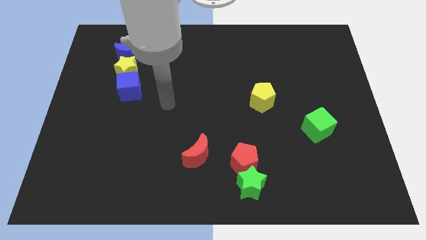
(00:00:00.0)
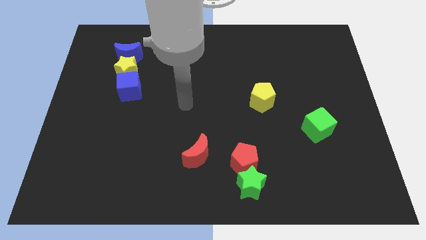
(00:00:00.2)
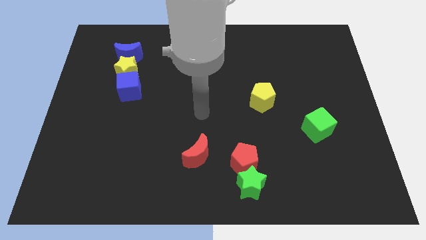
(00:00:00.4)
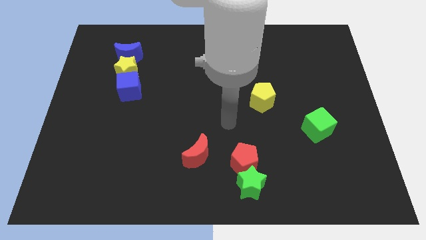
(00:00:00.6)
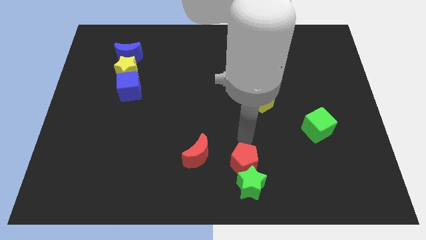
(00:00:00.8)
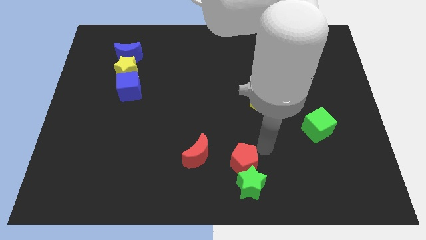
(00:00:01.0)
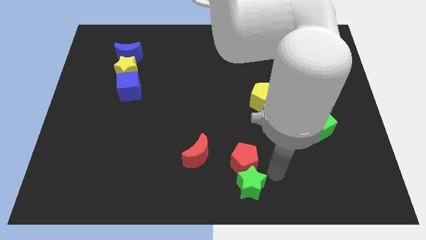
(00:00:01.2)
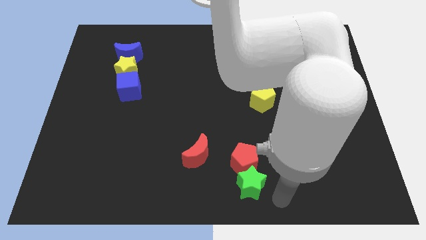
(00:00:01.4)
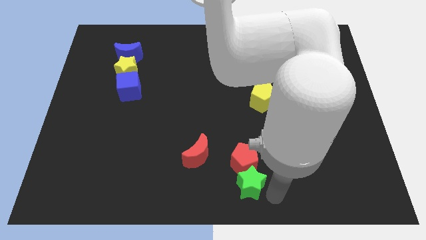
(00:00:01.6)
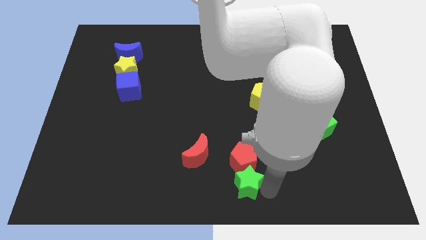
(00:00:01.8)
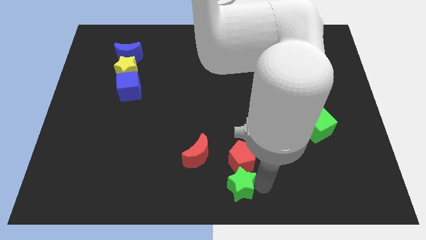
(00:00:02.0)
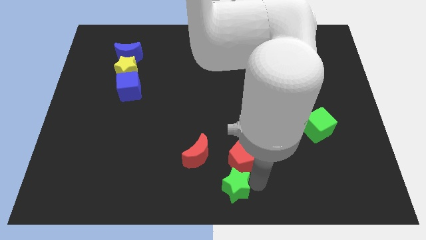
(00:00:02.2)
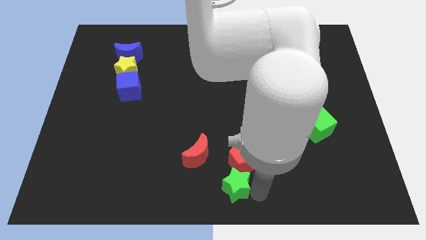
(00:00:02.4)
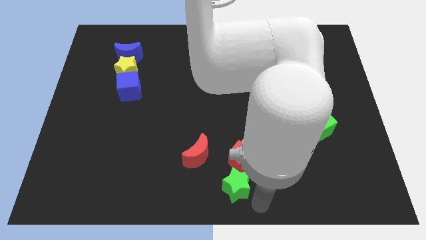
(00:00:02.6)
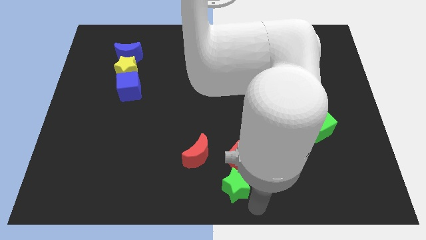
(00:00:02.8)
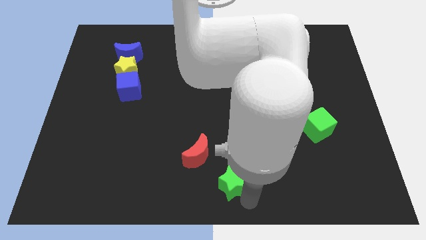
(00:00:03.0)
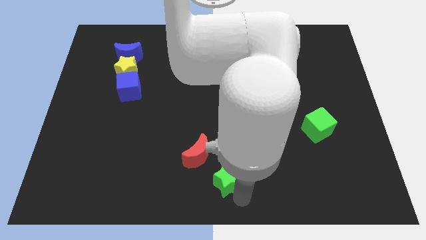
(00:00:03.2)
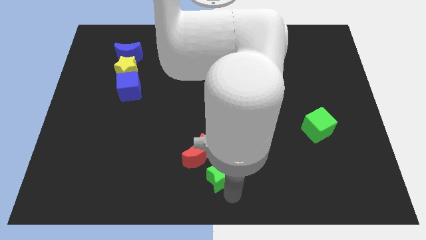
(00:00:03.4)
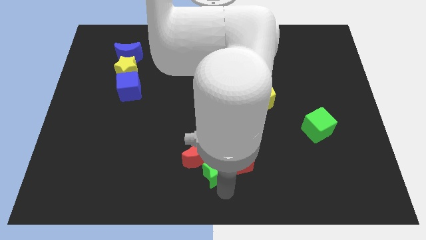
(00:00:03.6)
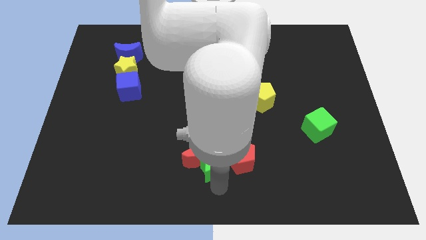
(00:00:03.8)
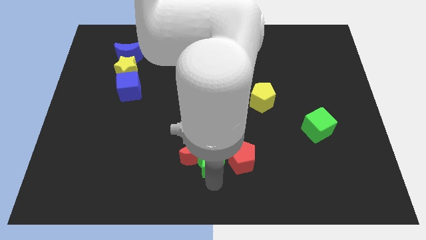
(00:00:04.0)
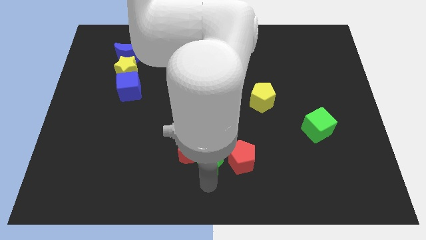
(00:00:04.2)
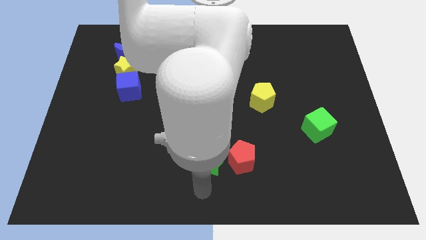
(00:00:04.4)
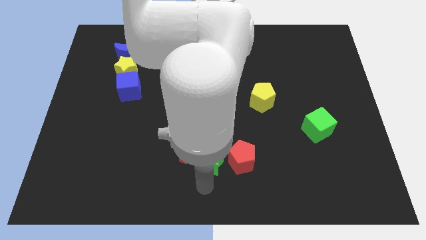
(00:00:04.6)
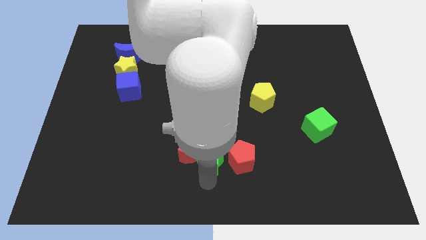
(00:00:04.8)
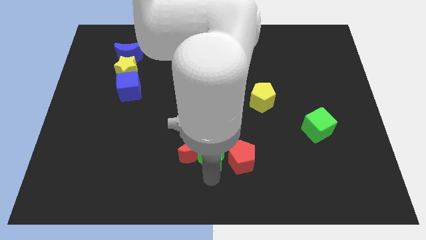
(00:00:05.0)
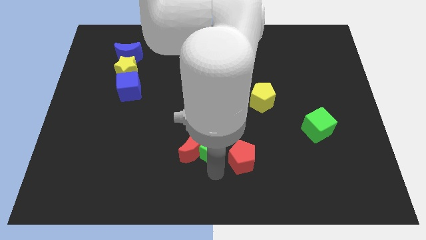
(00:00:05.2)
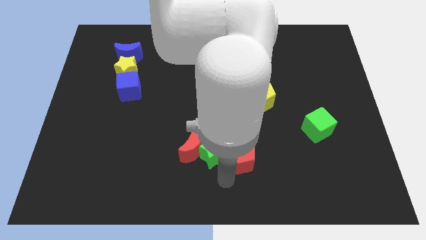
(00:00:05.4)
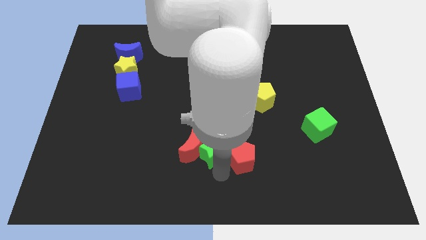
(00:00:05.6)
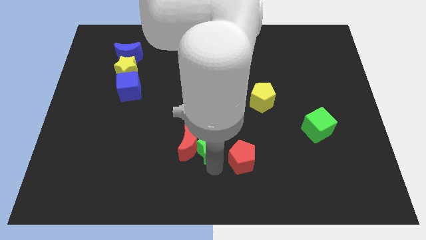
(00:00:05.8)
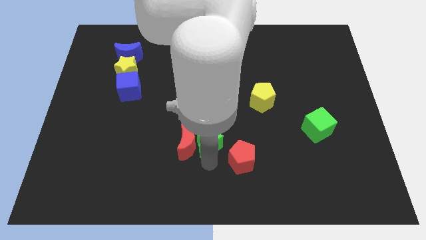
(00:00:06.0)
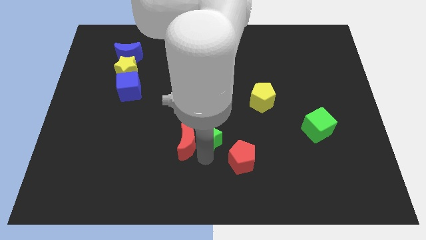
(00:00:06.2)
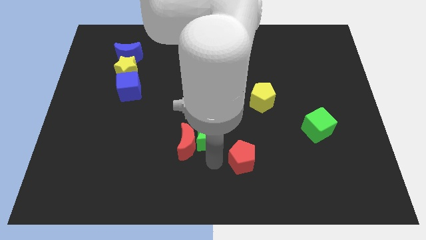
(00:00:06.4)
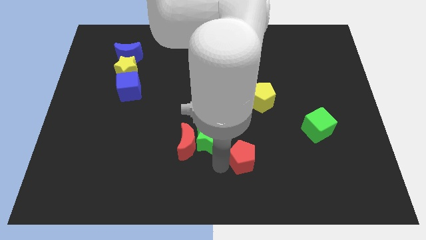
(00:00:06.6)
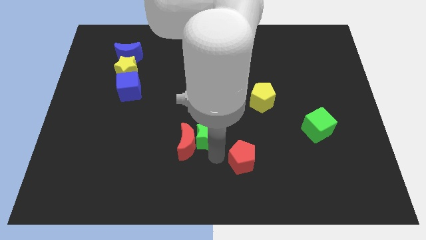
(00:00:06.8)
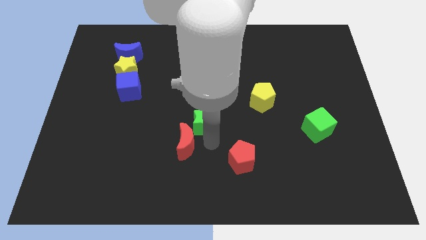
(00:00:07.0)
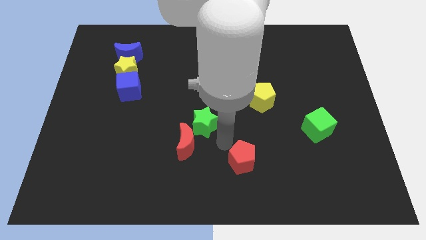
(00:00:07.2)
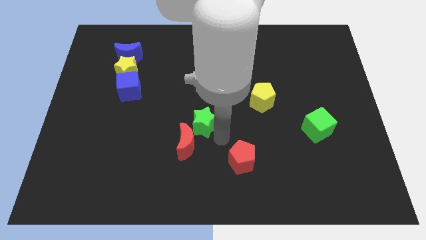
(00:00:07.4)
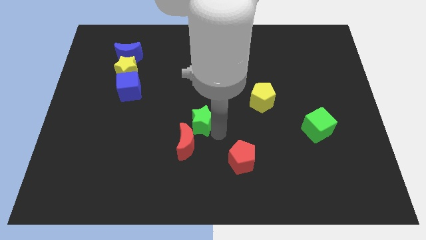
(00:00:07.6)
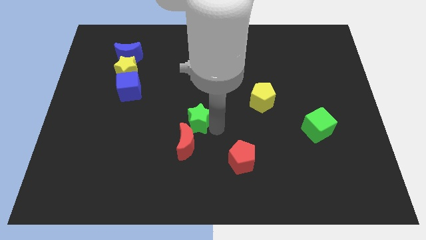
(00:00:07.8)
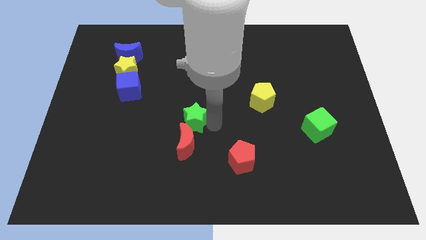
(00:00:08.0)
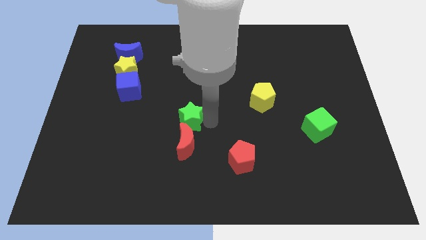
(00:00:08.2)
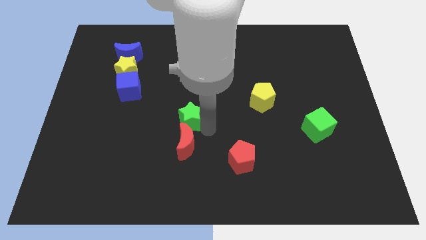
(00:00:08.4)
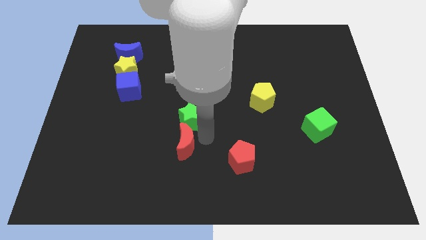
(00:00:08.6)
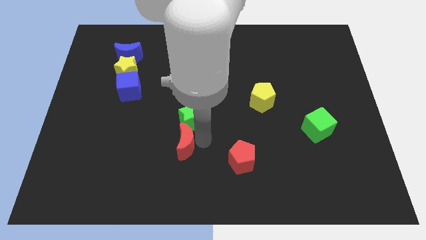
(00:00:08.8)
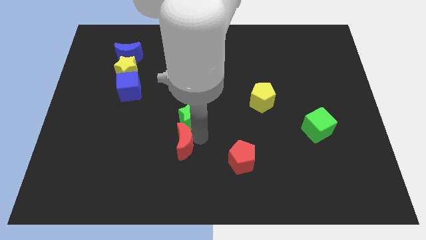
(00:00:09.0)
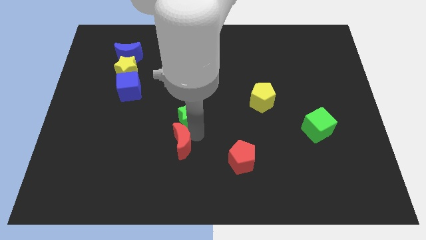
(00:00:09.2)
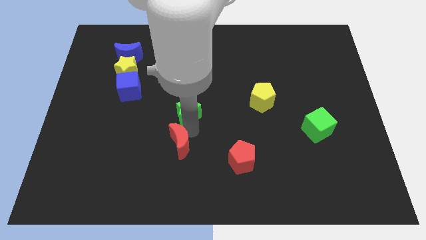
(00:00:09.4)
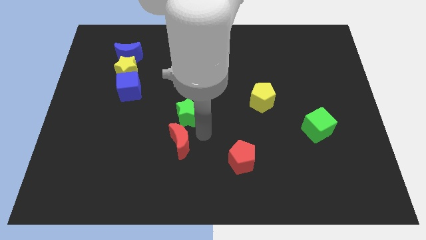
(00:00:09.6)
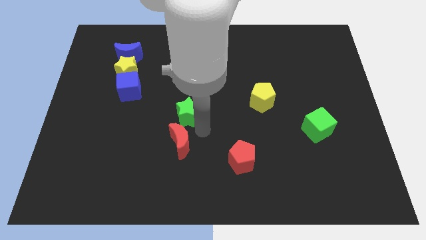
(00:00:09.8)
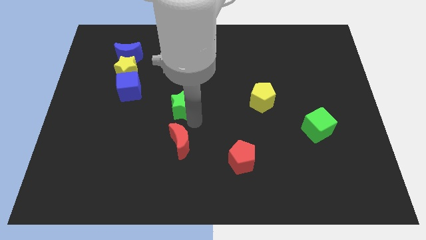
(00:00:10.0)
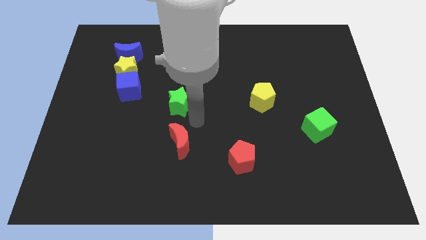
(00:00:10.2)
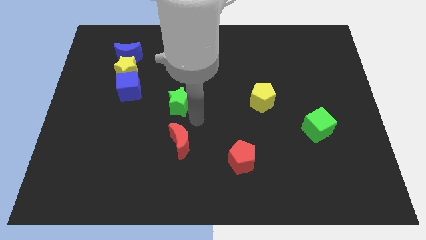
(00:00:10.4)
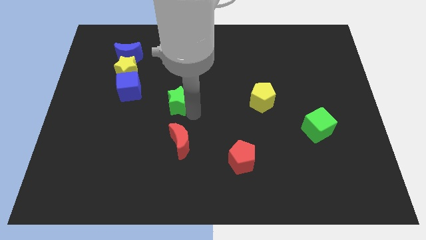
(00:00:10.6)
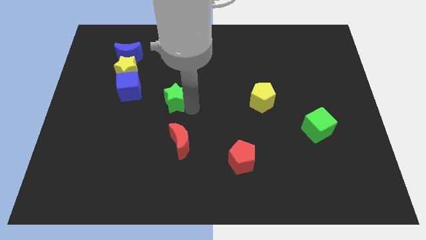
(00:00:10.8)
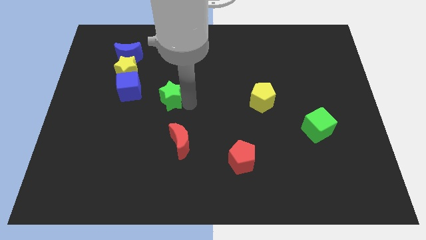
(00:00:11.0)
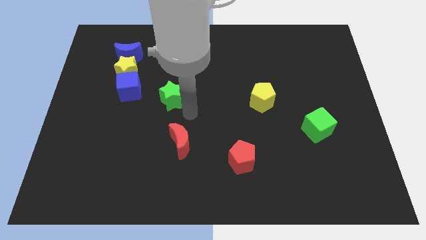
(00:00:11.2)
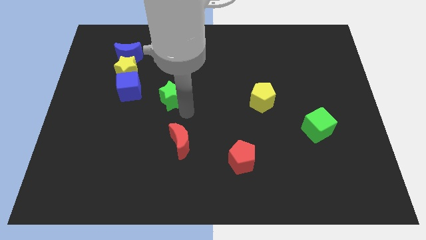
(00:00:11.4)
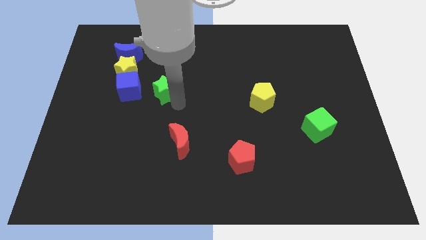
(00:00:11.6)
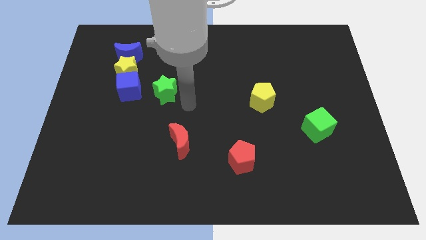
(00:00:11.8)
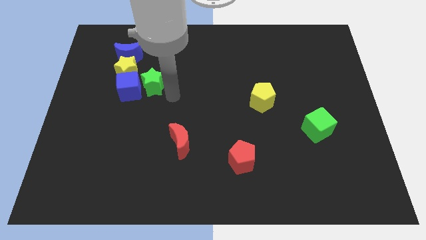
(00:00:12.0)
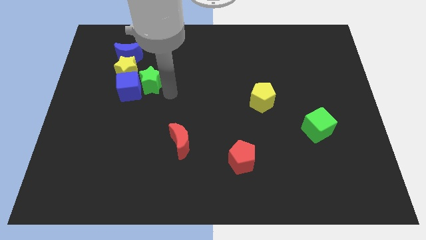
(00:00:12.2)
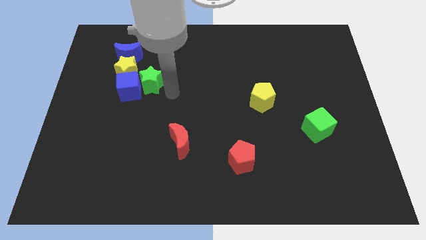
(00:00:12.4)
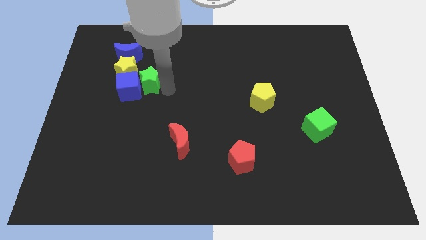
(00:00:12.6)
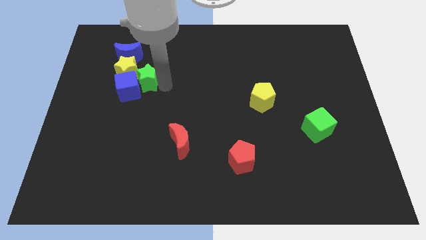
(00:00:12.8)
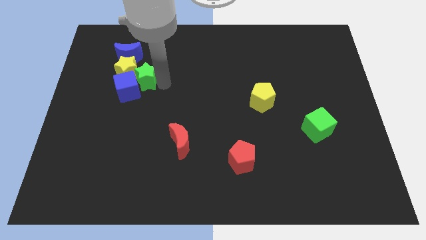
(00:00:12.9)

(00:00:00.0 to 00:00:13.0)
push the green star next to the yellow star
